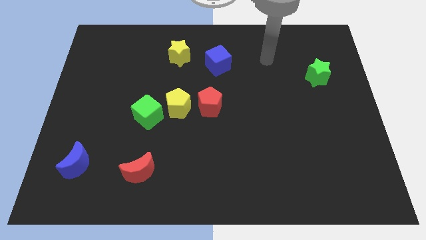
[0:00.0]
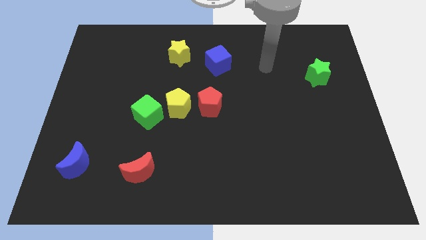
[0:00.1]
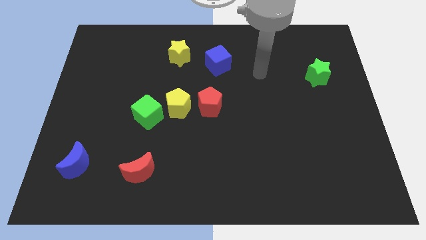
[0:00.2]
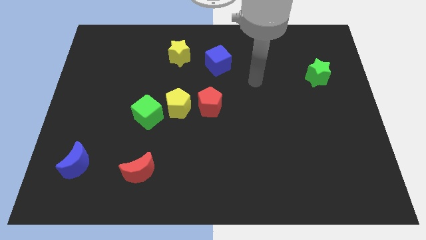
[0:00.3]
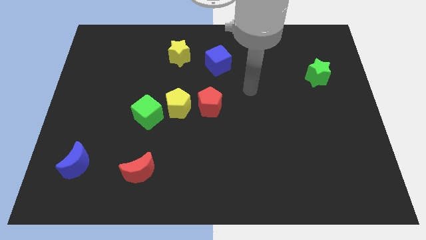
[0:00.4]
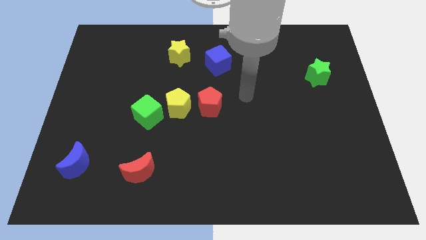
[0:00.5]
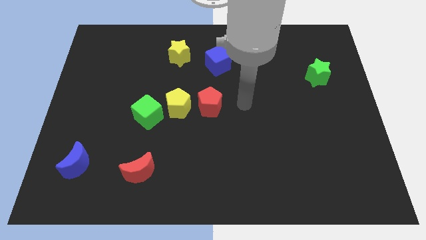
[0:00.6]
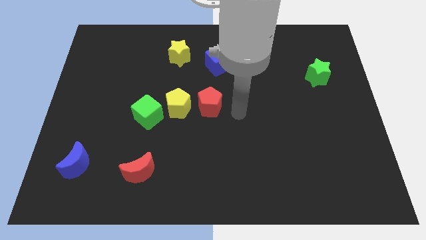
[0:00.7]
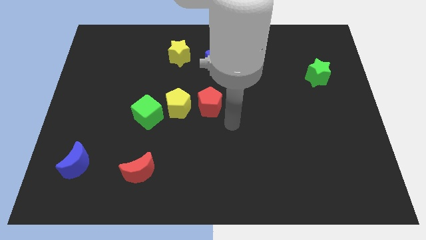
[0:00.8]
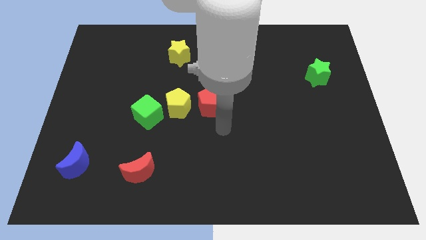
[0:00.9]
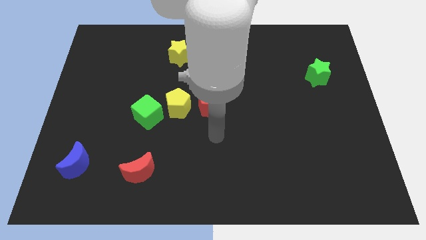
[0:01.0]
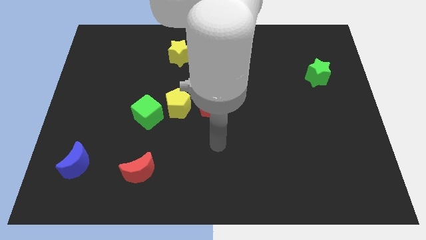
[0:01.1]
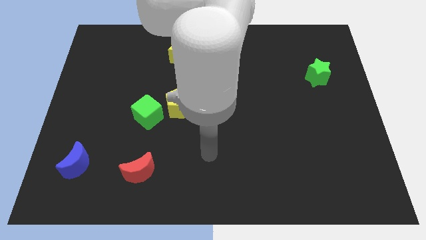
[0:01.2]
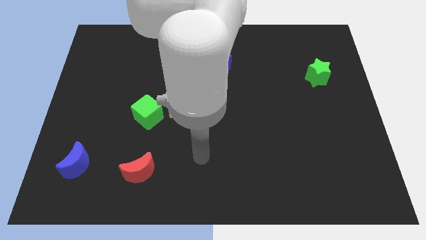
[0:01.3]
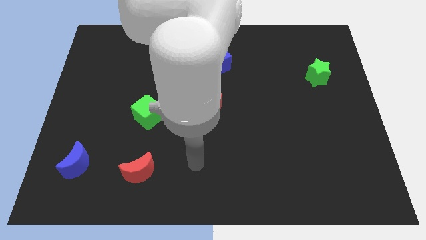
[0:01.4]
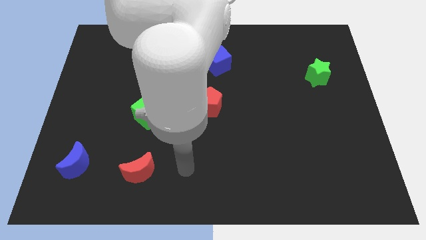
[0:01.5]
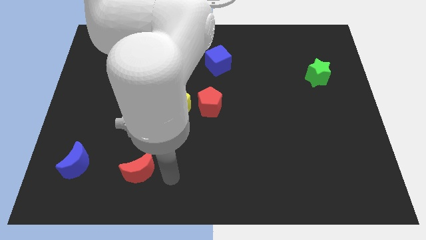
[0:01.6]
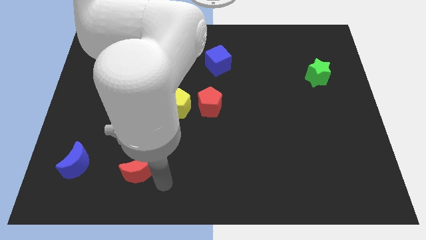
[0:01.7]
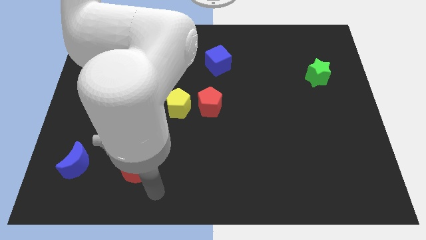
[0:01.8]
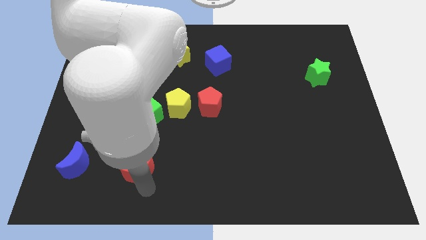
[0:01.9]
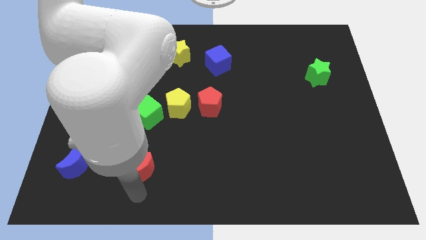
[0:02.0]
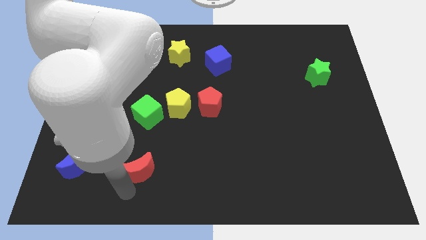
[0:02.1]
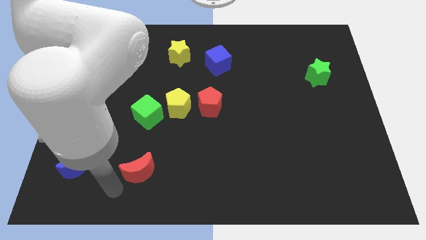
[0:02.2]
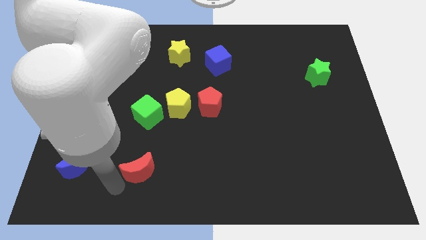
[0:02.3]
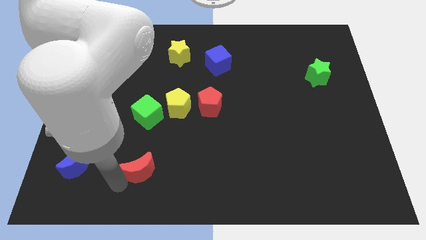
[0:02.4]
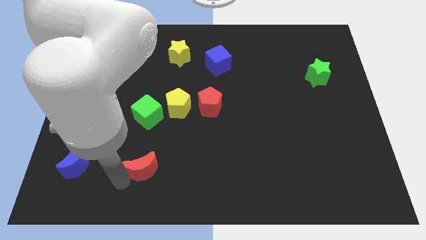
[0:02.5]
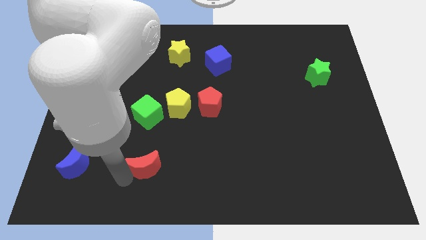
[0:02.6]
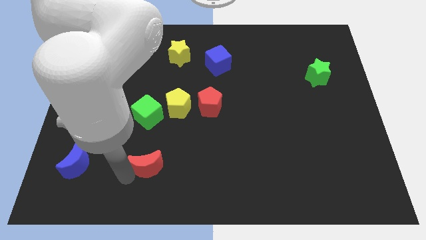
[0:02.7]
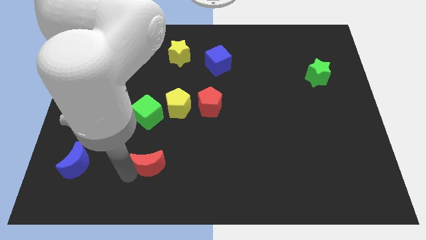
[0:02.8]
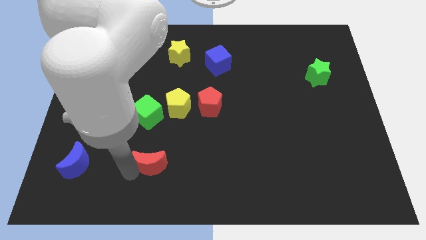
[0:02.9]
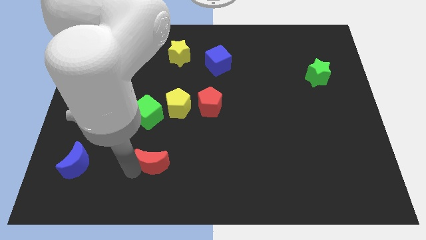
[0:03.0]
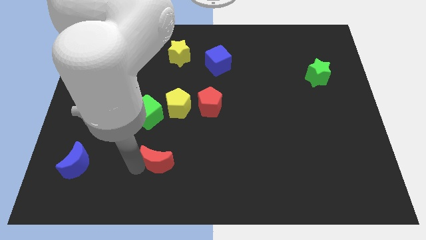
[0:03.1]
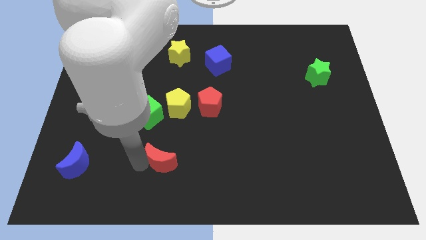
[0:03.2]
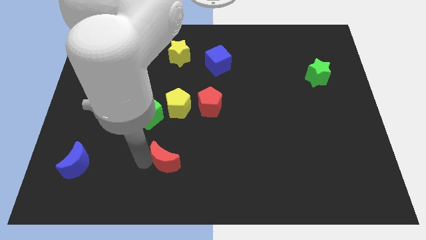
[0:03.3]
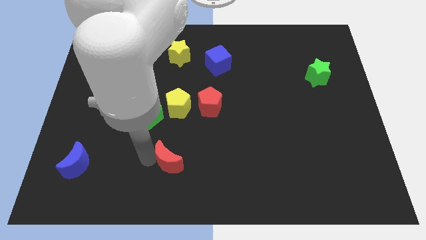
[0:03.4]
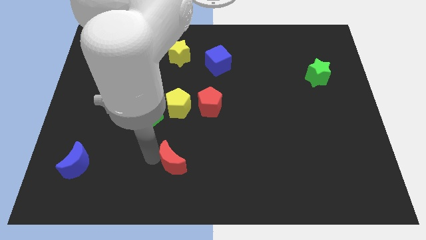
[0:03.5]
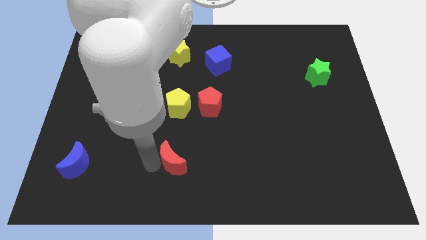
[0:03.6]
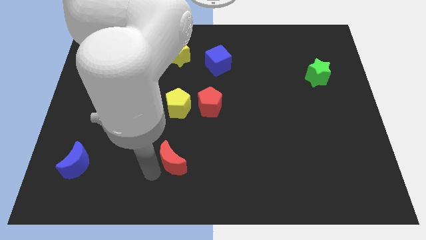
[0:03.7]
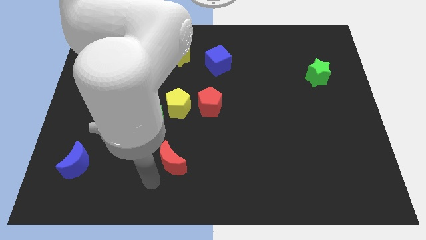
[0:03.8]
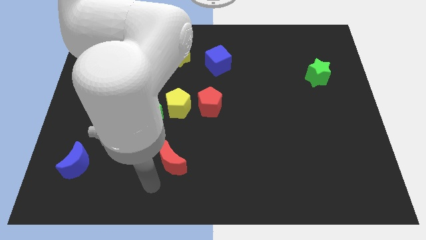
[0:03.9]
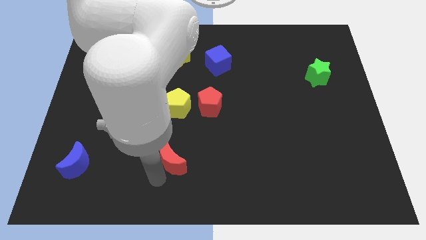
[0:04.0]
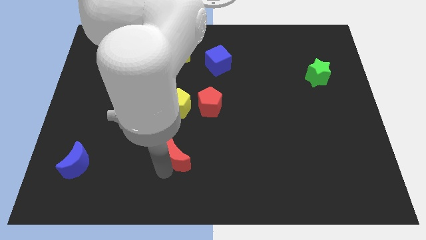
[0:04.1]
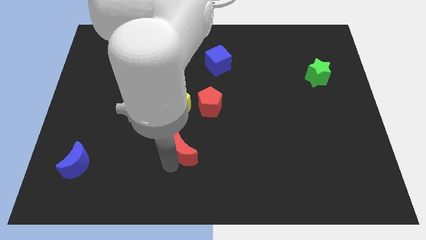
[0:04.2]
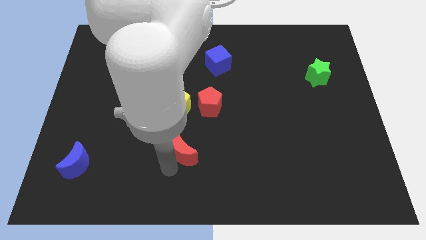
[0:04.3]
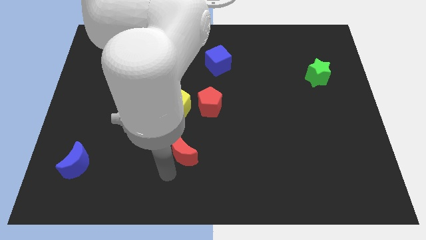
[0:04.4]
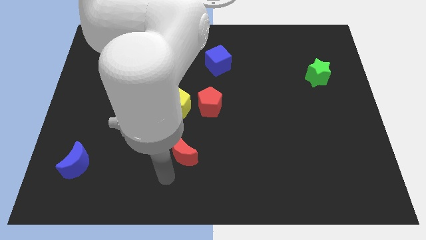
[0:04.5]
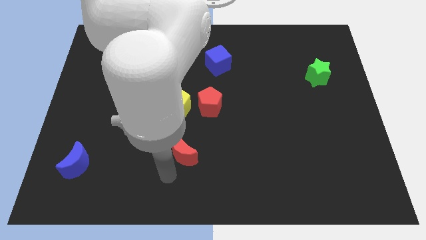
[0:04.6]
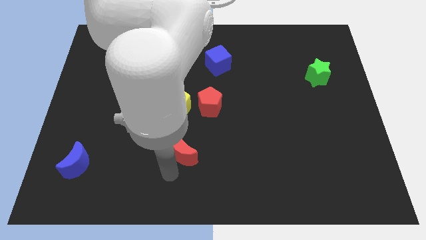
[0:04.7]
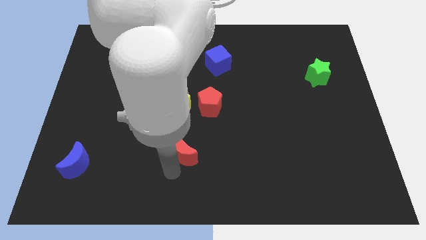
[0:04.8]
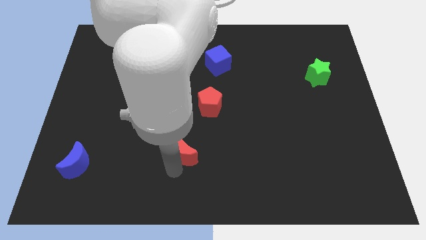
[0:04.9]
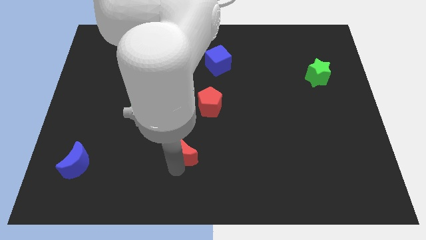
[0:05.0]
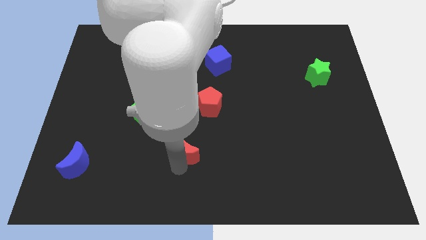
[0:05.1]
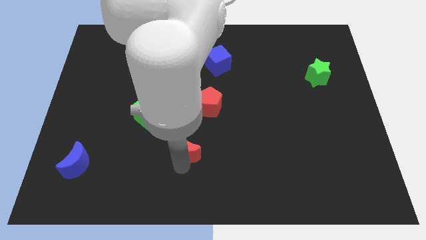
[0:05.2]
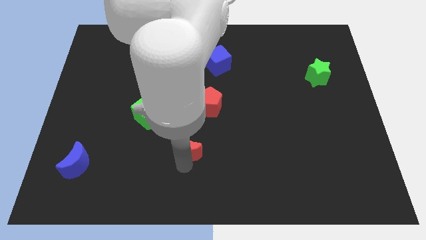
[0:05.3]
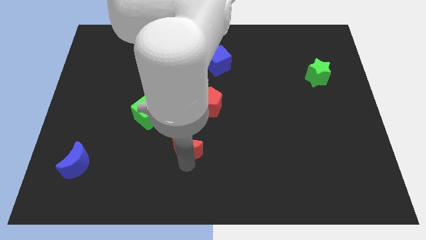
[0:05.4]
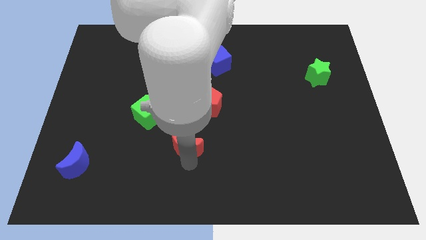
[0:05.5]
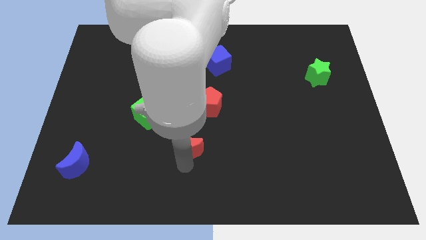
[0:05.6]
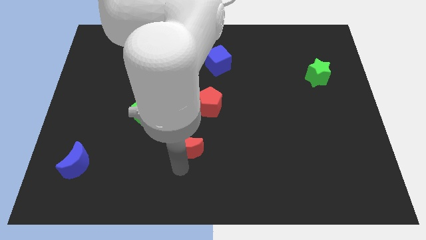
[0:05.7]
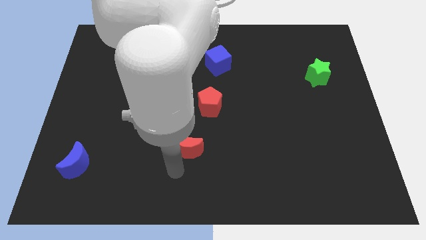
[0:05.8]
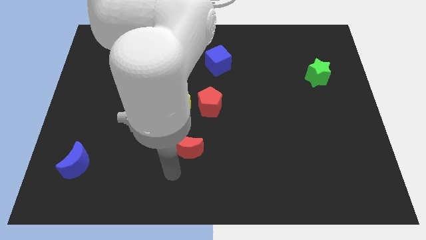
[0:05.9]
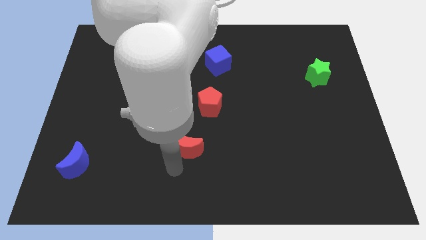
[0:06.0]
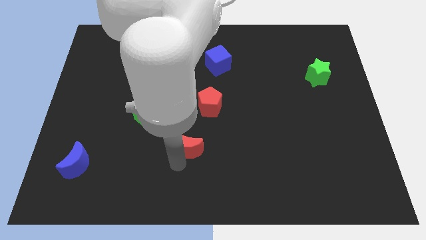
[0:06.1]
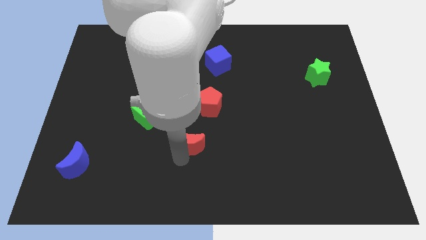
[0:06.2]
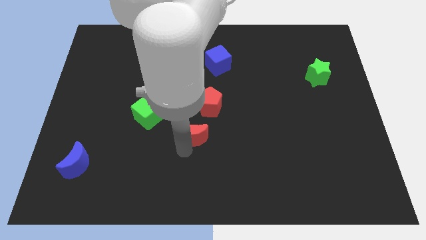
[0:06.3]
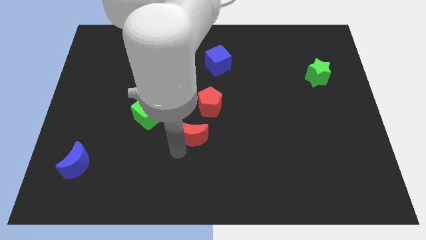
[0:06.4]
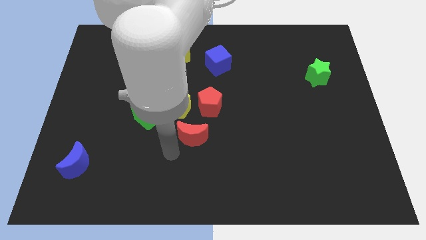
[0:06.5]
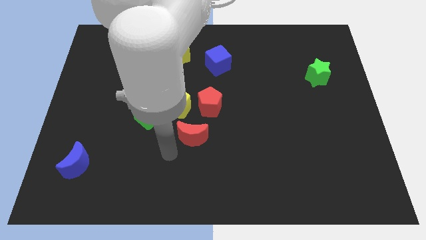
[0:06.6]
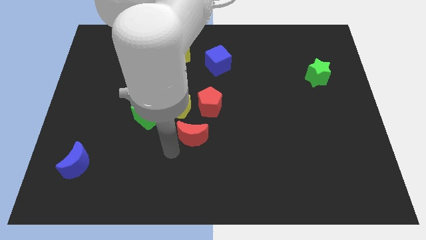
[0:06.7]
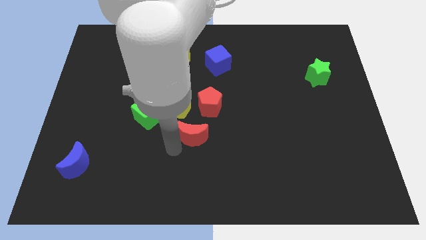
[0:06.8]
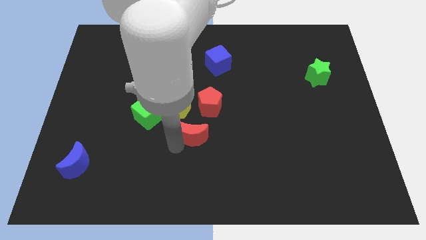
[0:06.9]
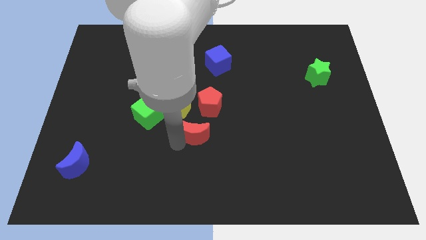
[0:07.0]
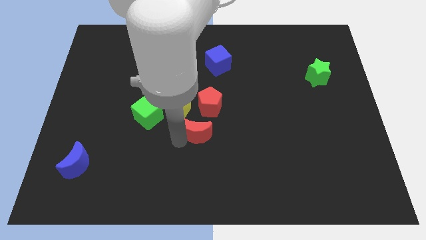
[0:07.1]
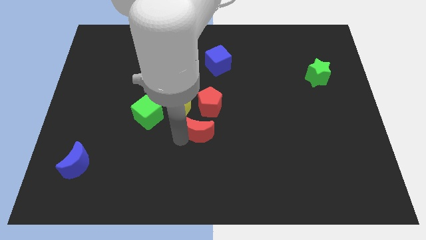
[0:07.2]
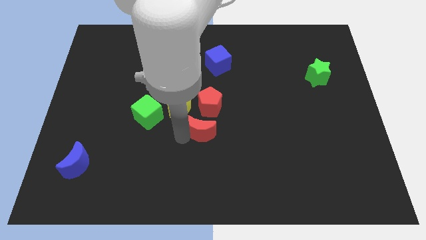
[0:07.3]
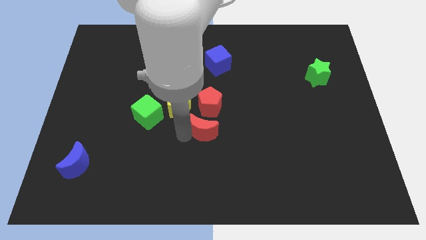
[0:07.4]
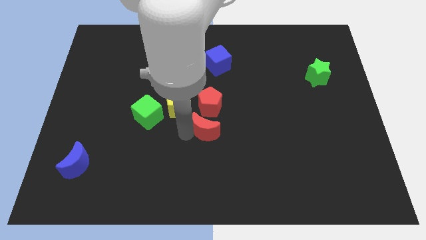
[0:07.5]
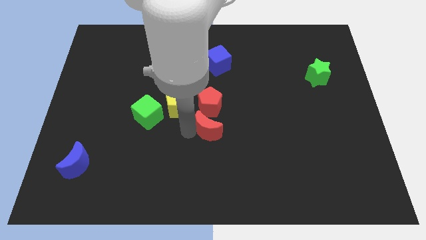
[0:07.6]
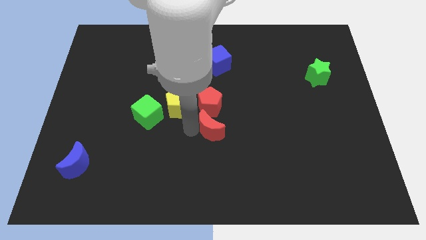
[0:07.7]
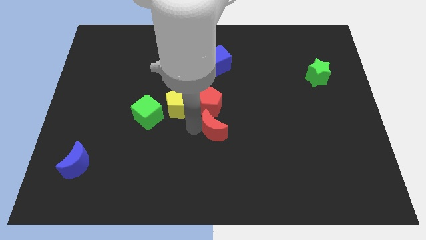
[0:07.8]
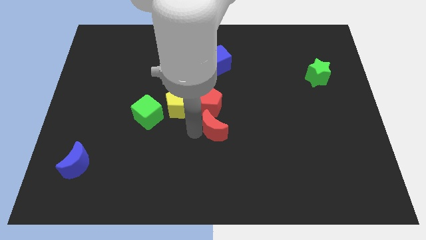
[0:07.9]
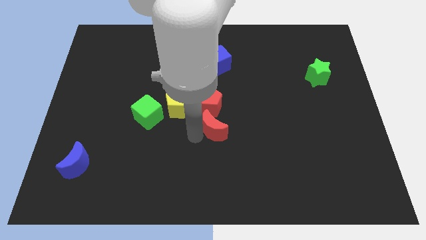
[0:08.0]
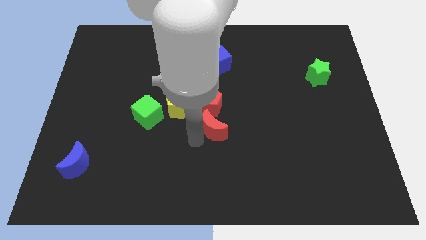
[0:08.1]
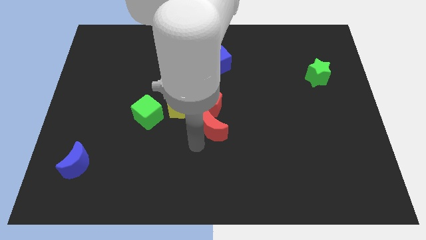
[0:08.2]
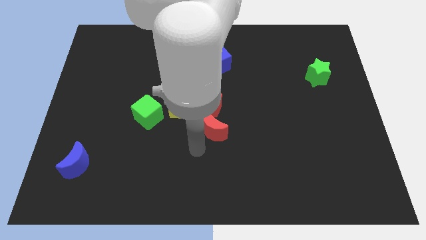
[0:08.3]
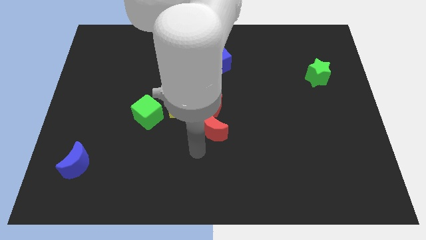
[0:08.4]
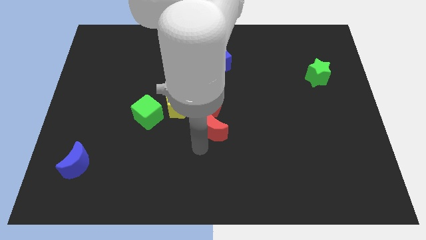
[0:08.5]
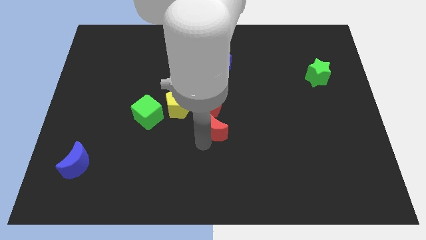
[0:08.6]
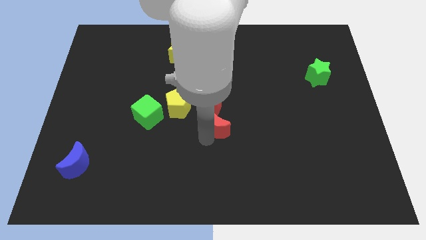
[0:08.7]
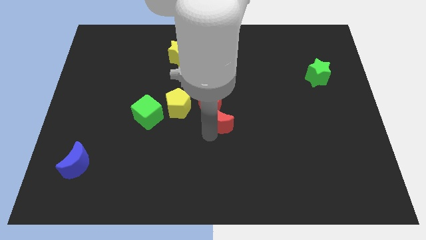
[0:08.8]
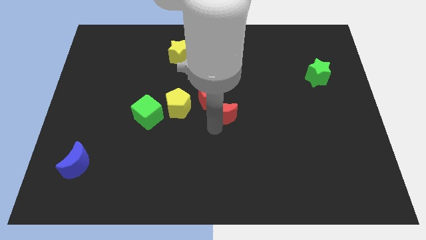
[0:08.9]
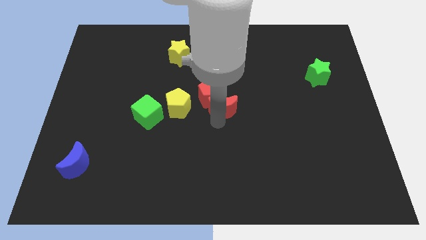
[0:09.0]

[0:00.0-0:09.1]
push the red moon below the blue cube
